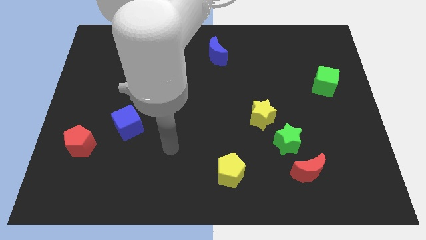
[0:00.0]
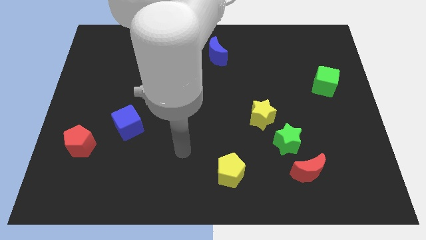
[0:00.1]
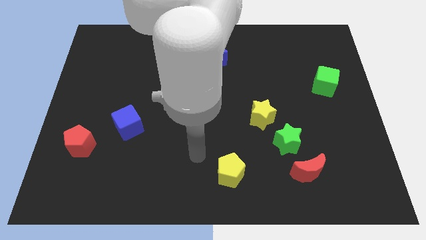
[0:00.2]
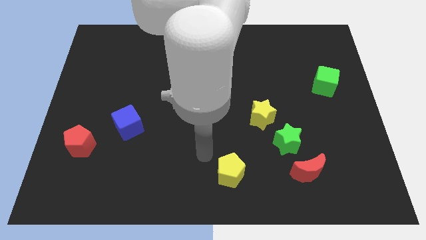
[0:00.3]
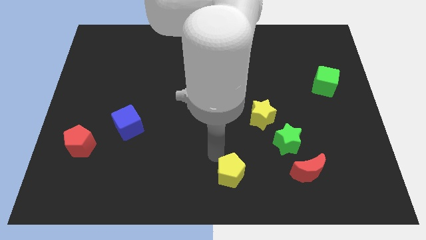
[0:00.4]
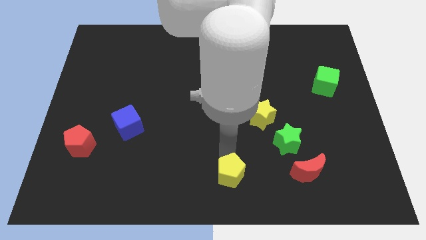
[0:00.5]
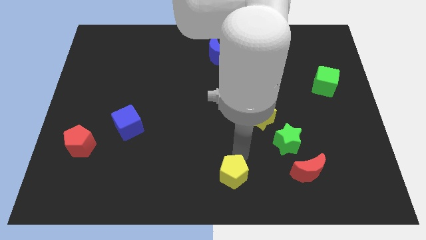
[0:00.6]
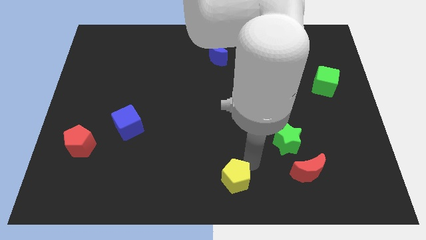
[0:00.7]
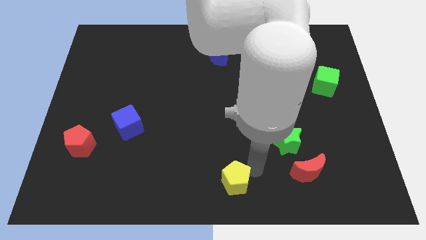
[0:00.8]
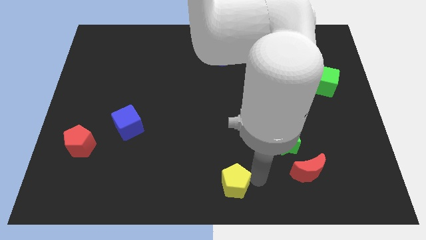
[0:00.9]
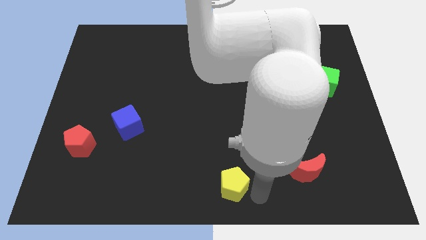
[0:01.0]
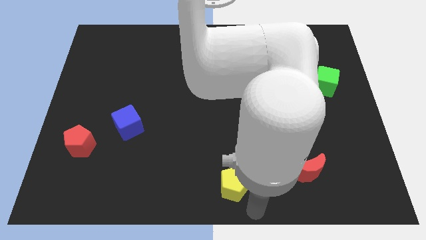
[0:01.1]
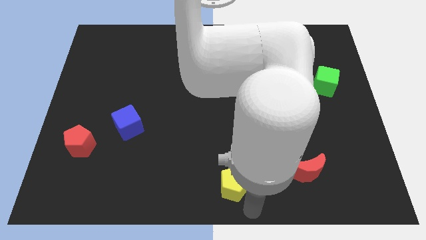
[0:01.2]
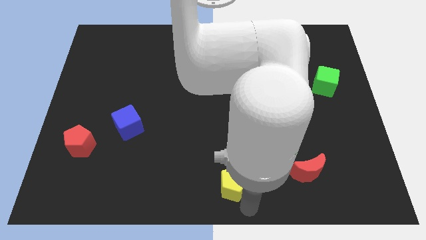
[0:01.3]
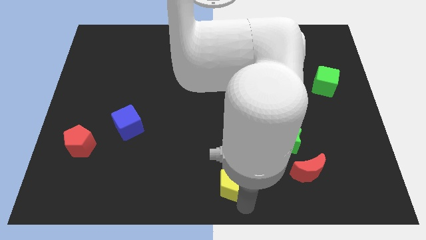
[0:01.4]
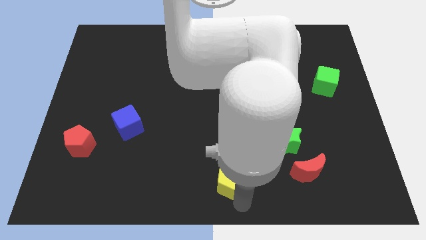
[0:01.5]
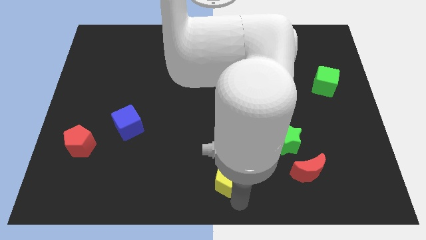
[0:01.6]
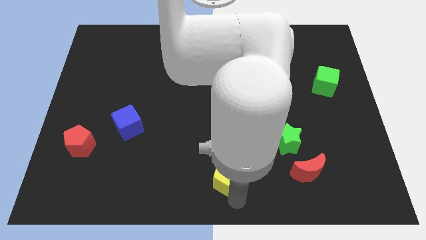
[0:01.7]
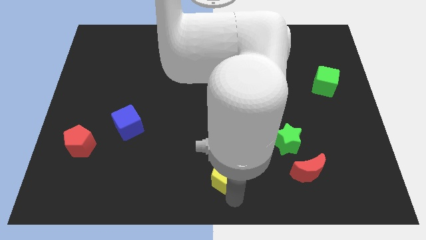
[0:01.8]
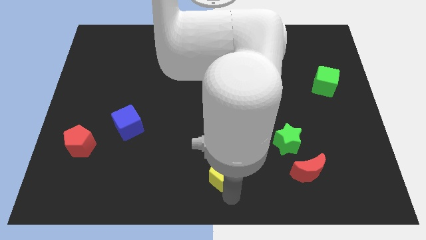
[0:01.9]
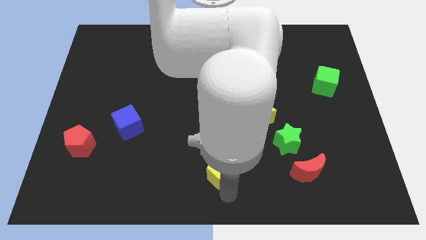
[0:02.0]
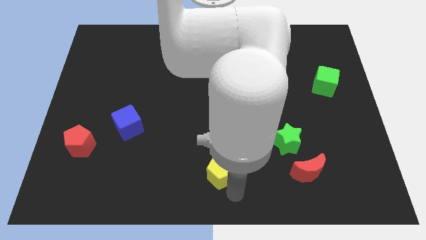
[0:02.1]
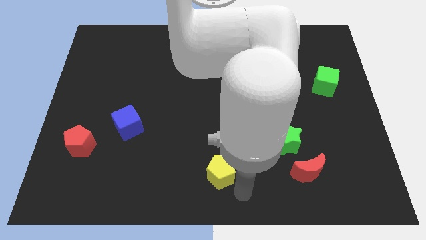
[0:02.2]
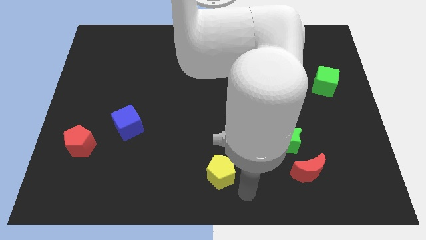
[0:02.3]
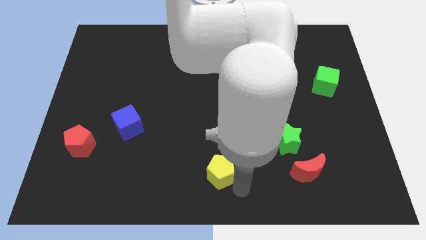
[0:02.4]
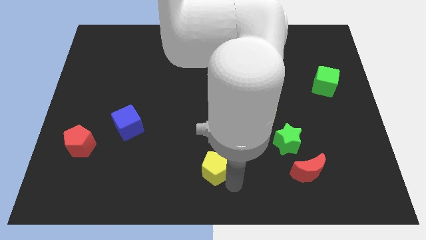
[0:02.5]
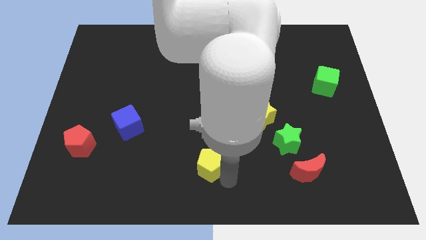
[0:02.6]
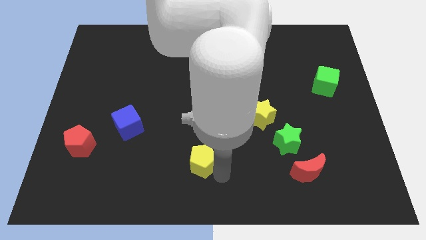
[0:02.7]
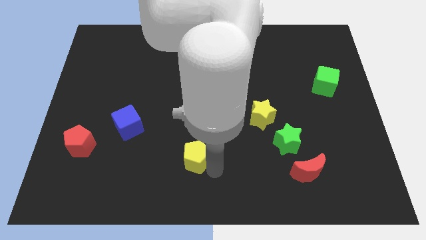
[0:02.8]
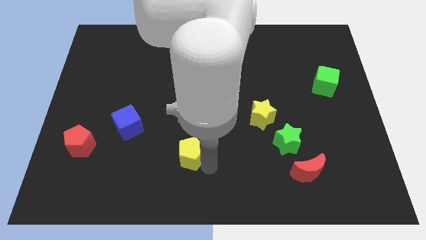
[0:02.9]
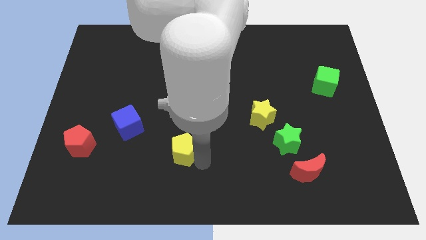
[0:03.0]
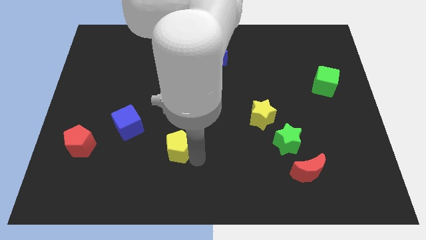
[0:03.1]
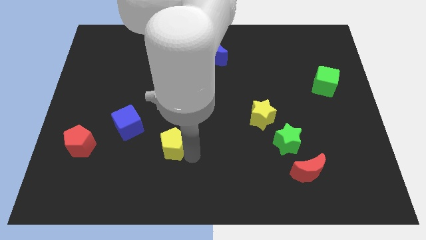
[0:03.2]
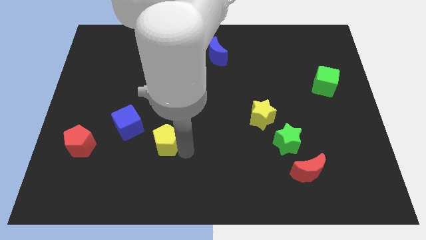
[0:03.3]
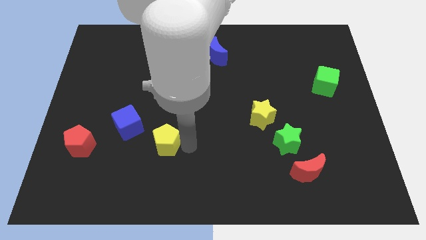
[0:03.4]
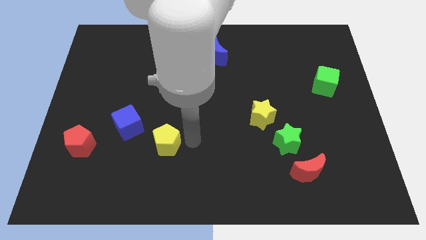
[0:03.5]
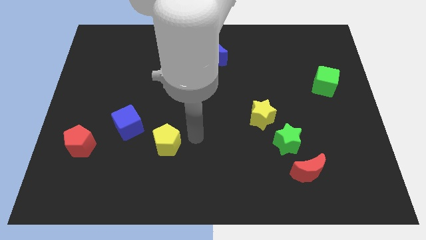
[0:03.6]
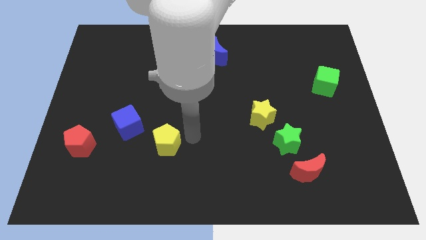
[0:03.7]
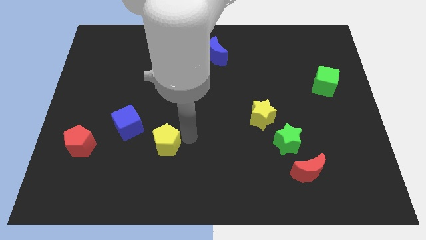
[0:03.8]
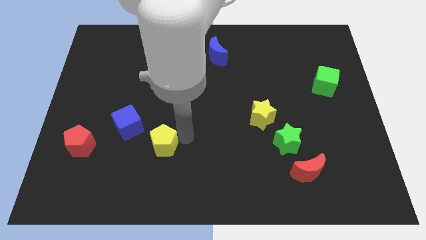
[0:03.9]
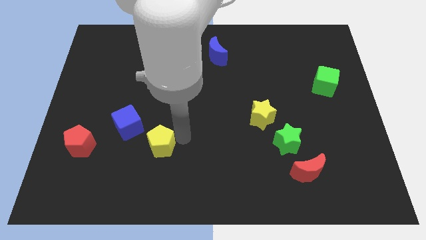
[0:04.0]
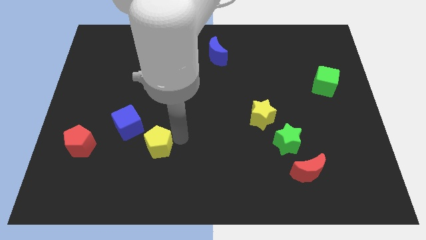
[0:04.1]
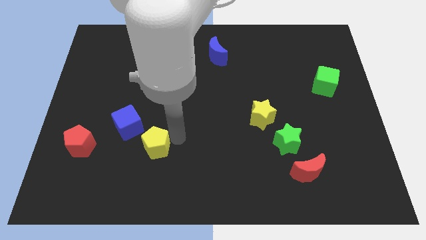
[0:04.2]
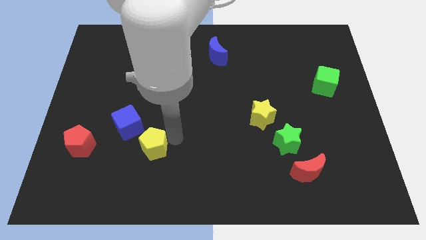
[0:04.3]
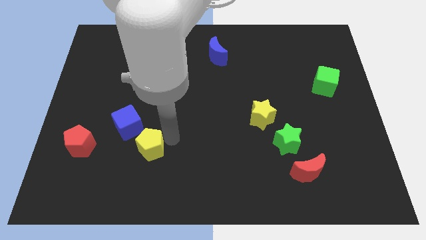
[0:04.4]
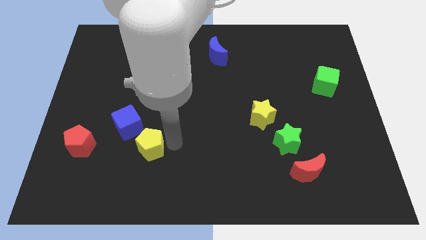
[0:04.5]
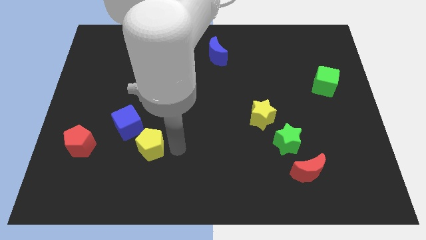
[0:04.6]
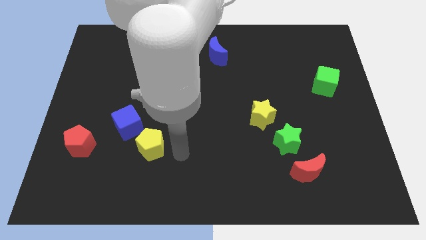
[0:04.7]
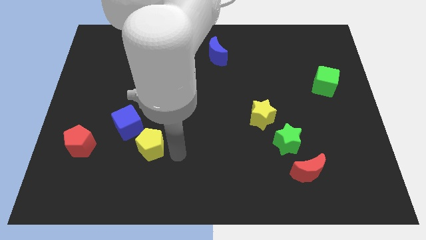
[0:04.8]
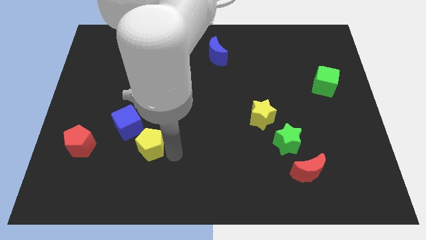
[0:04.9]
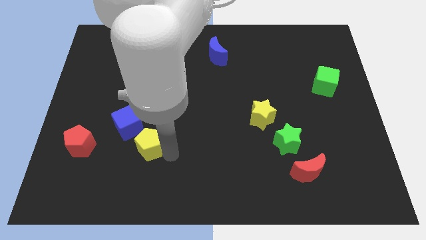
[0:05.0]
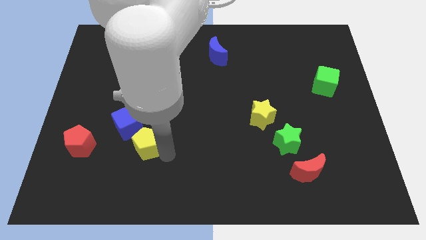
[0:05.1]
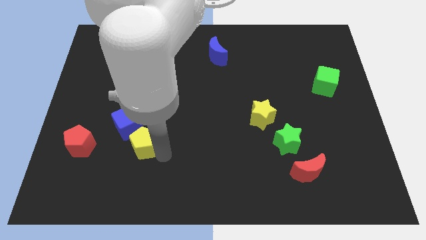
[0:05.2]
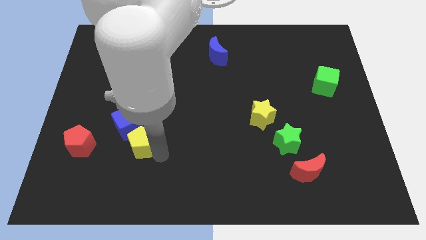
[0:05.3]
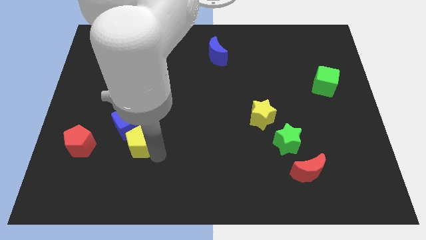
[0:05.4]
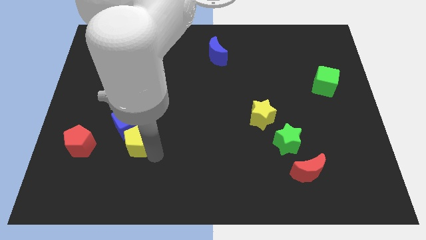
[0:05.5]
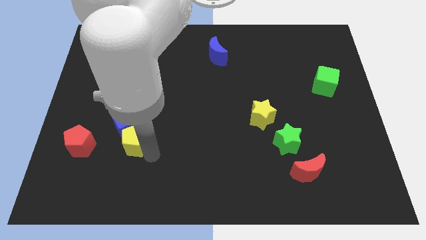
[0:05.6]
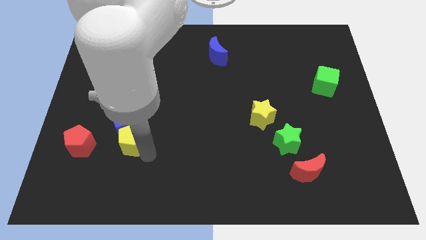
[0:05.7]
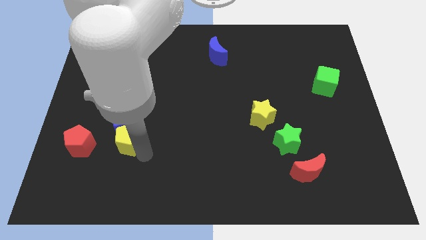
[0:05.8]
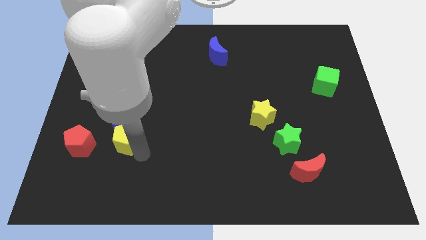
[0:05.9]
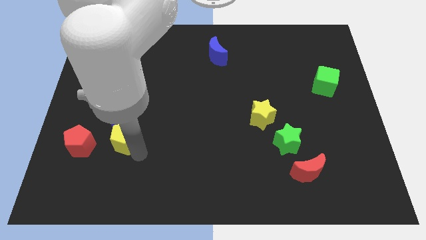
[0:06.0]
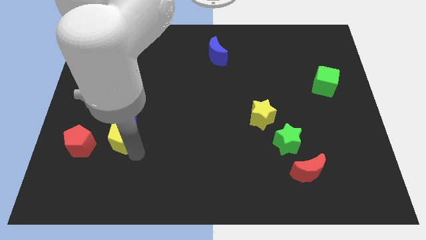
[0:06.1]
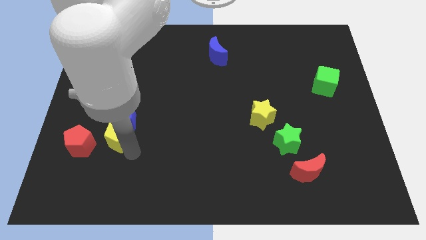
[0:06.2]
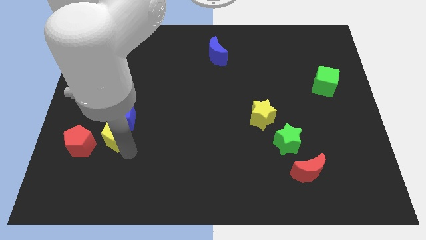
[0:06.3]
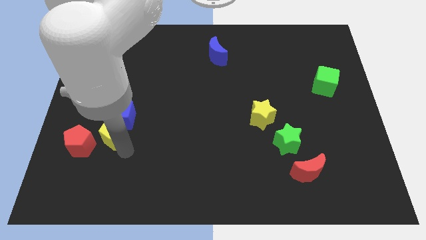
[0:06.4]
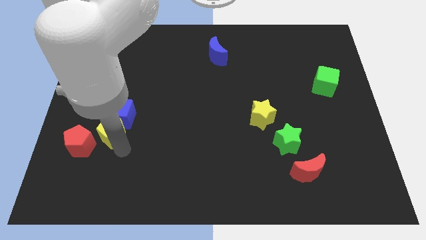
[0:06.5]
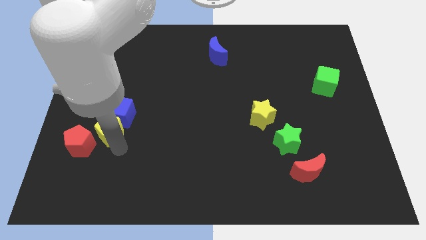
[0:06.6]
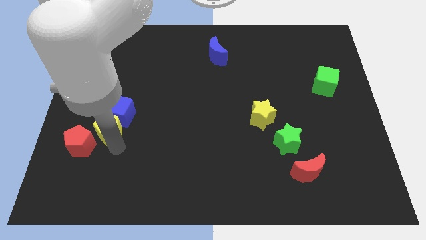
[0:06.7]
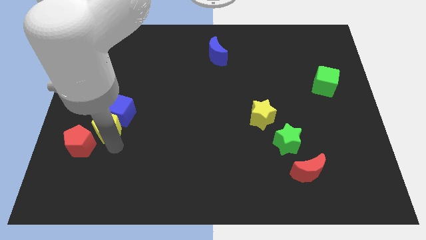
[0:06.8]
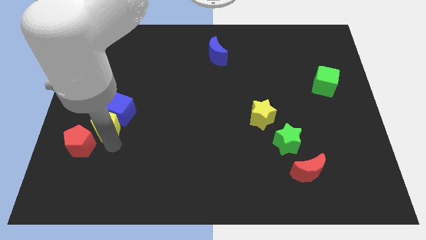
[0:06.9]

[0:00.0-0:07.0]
put the yellow pentagon to the top side of the red pentagon
